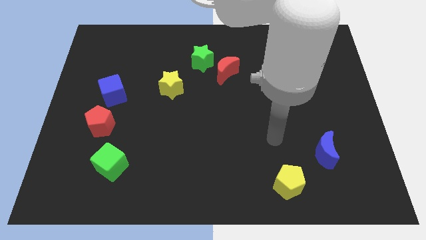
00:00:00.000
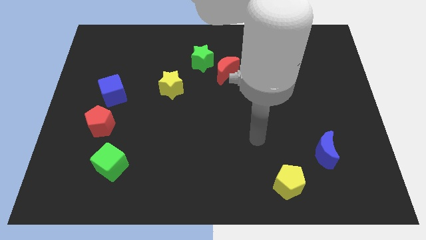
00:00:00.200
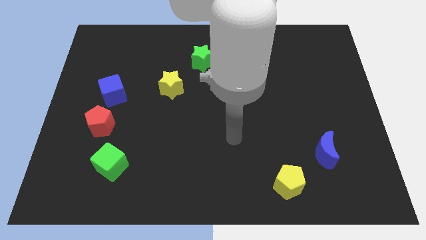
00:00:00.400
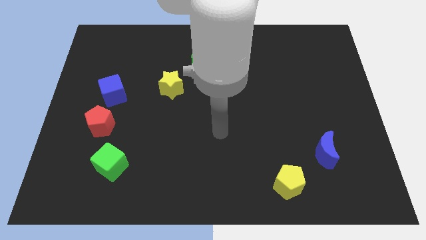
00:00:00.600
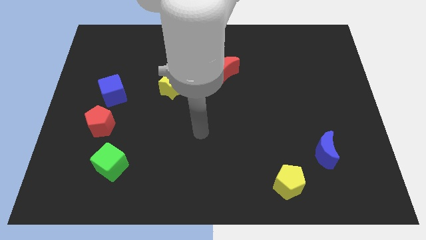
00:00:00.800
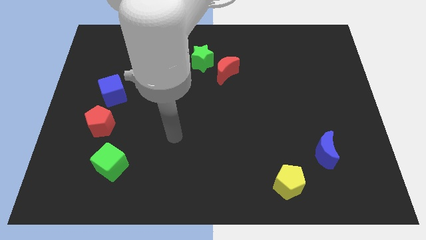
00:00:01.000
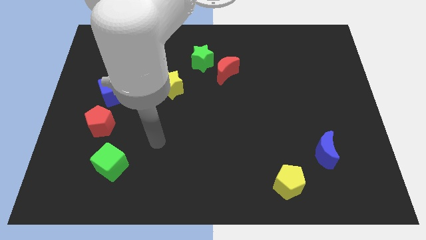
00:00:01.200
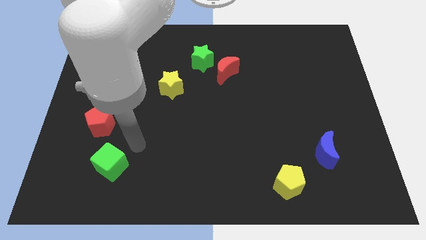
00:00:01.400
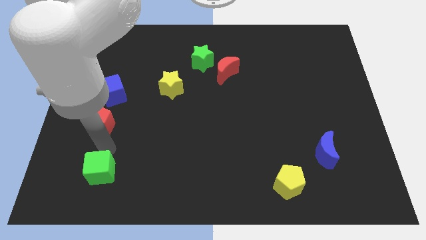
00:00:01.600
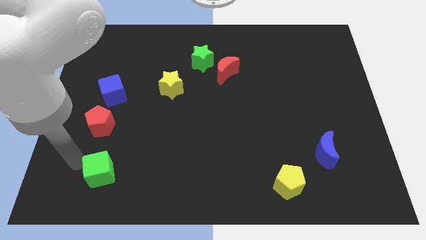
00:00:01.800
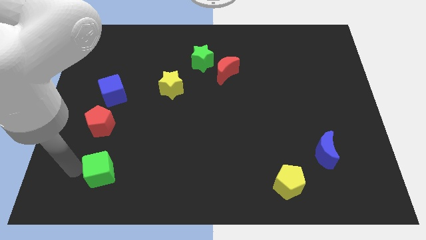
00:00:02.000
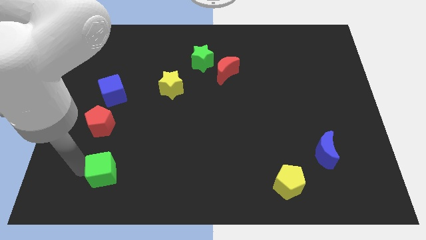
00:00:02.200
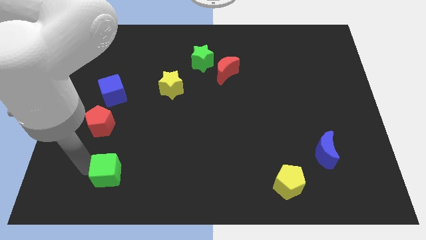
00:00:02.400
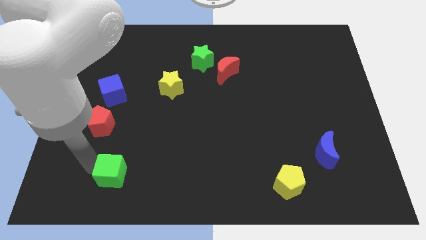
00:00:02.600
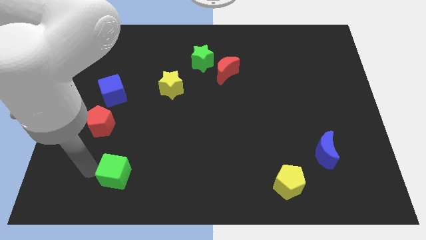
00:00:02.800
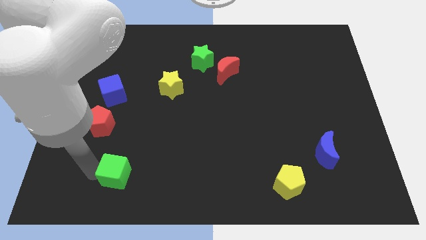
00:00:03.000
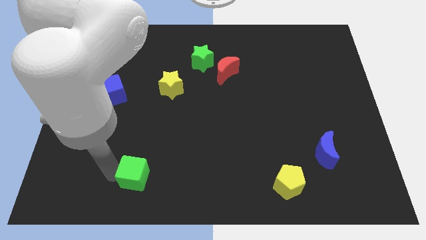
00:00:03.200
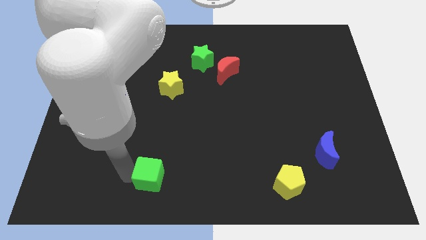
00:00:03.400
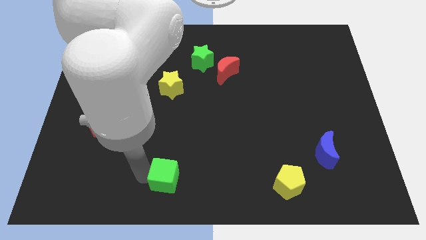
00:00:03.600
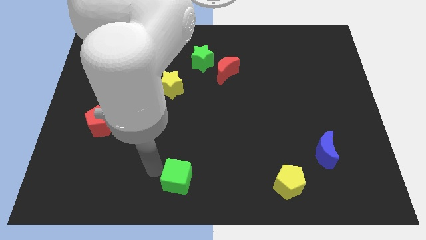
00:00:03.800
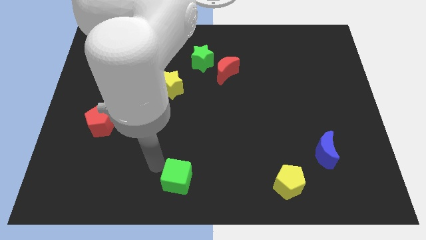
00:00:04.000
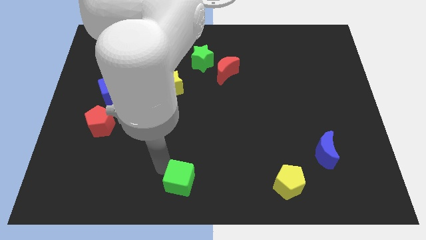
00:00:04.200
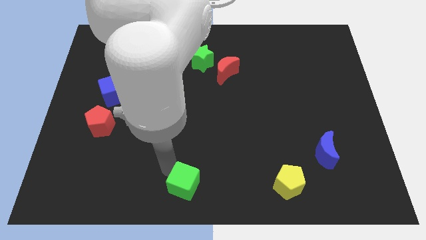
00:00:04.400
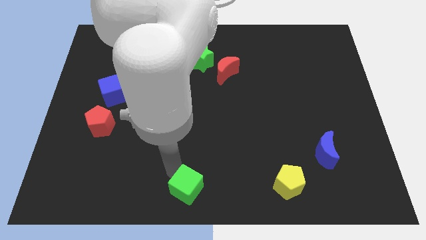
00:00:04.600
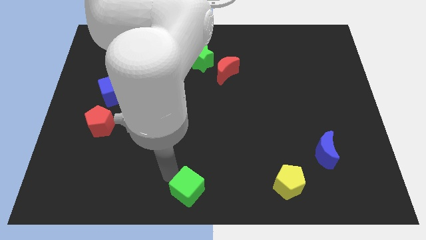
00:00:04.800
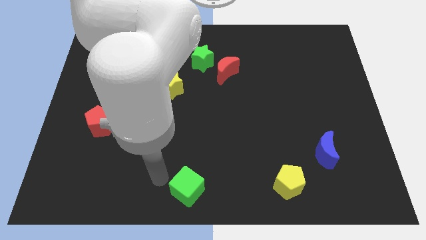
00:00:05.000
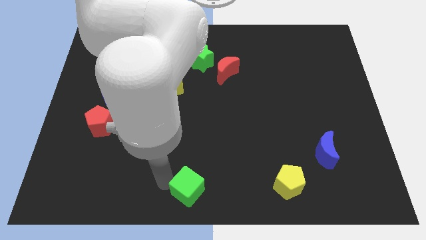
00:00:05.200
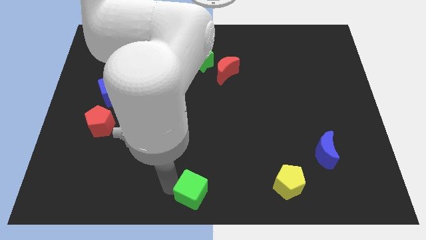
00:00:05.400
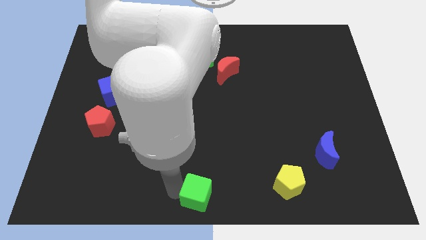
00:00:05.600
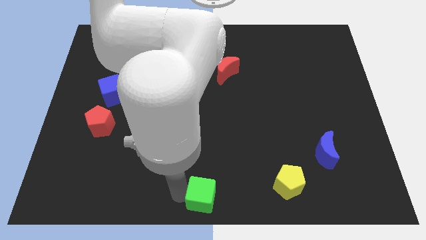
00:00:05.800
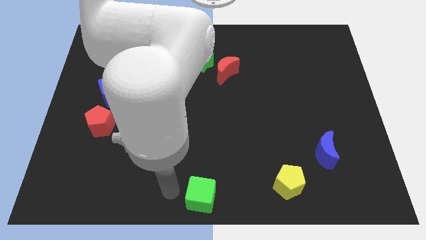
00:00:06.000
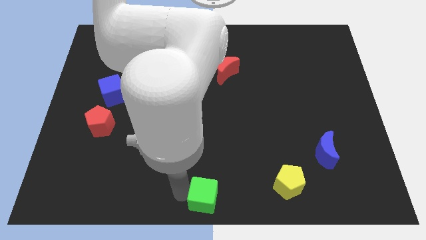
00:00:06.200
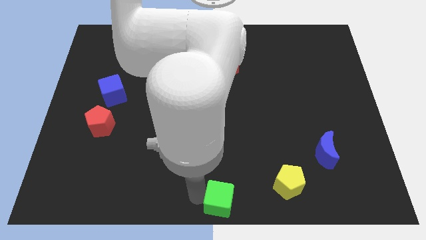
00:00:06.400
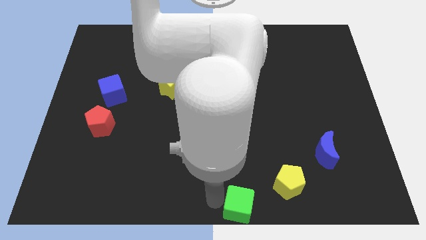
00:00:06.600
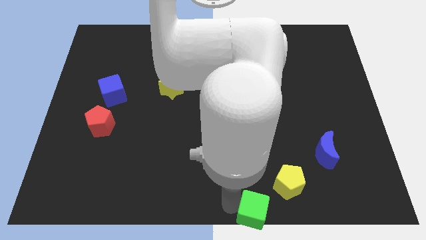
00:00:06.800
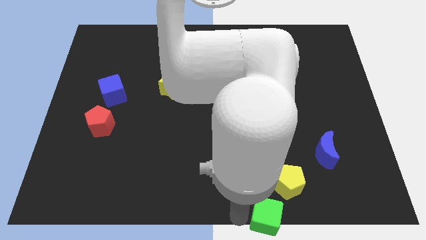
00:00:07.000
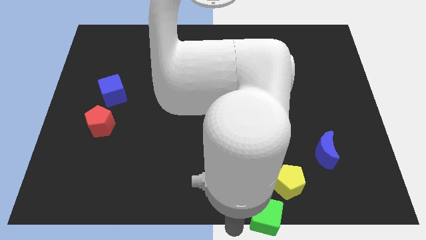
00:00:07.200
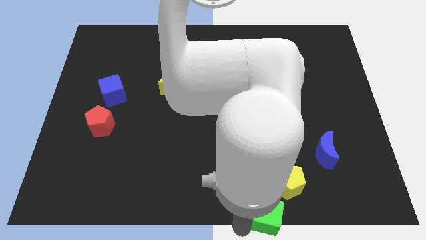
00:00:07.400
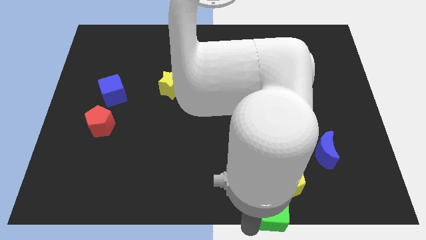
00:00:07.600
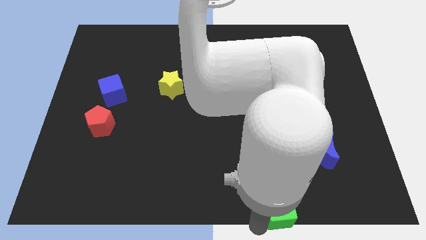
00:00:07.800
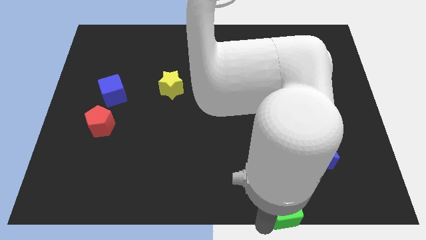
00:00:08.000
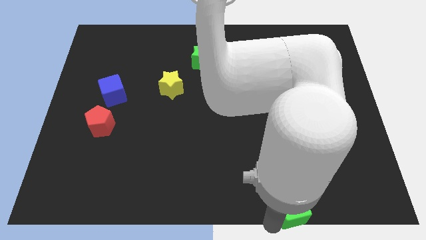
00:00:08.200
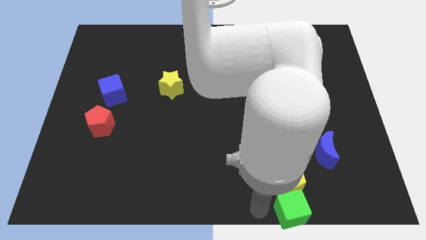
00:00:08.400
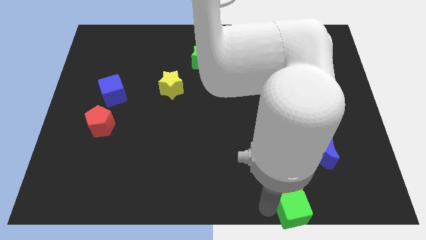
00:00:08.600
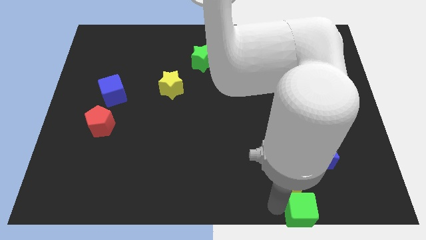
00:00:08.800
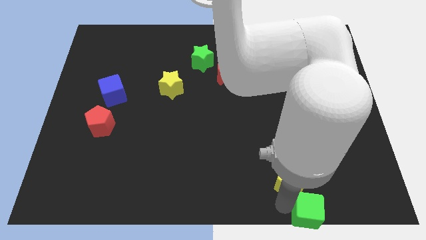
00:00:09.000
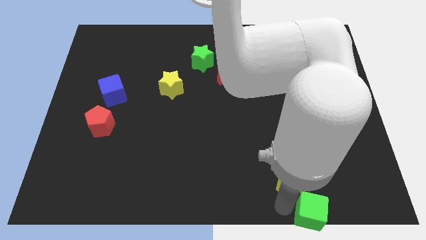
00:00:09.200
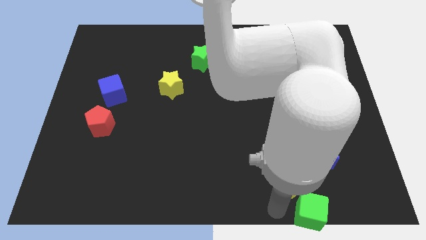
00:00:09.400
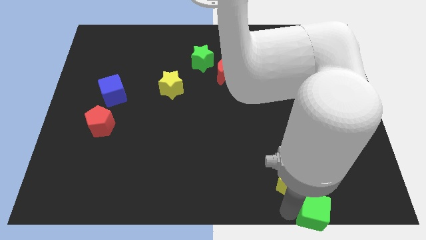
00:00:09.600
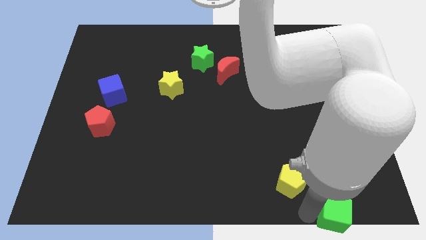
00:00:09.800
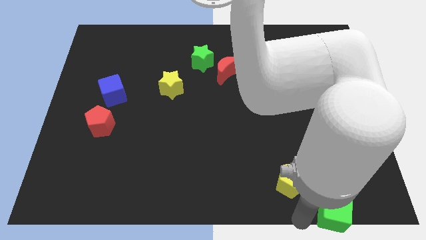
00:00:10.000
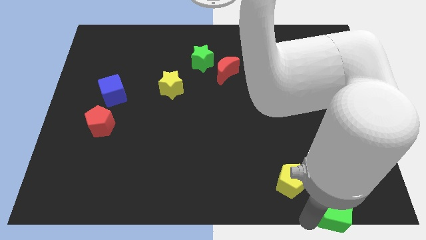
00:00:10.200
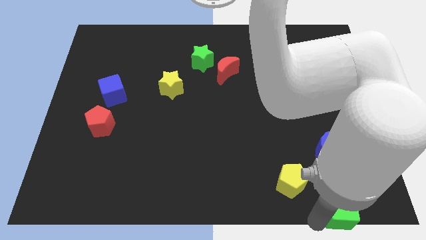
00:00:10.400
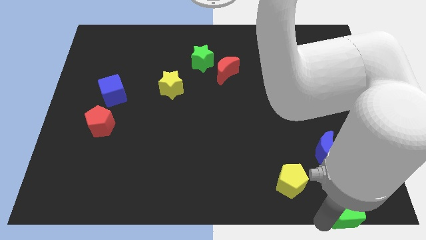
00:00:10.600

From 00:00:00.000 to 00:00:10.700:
push the green cube to the bottom right corner
